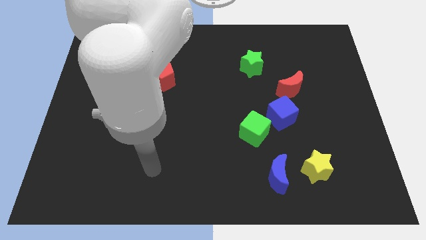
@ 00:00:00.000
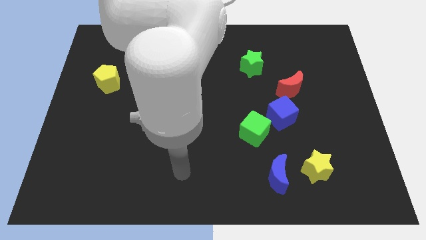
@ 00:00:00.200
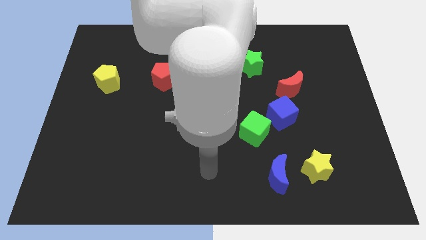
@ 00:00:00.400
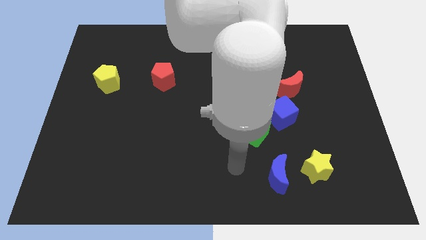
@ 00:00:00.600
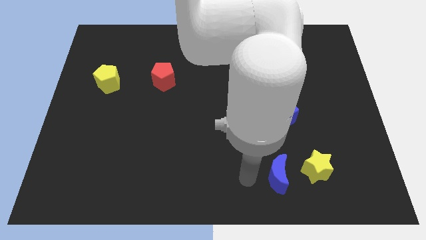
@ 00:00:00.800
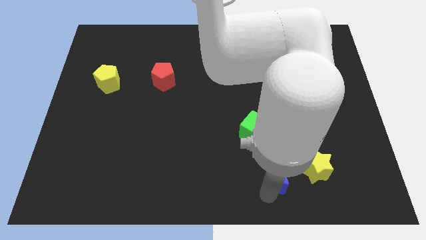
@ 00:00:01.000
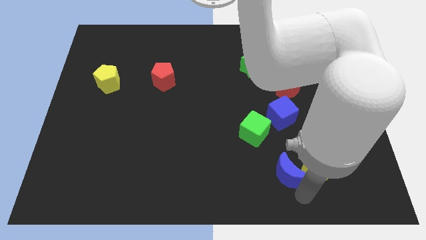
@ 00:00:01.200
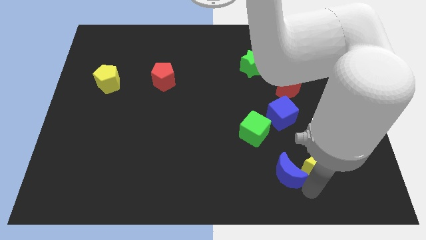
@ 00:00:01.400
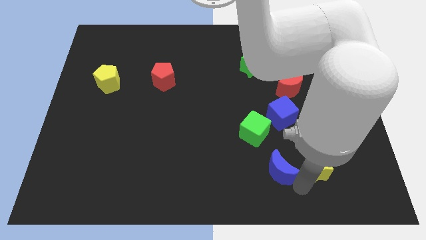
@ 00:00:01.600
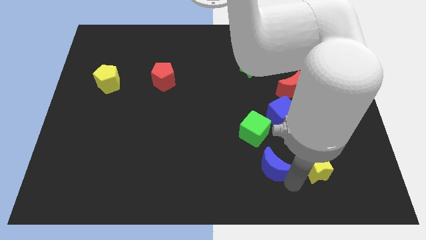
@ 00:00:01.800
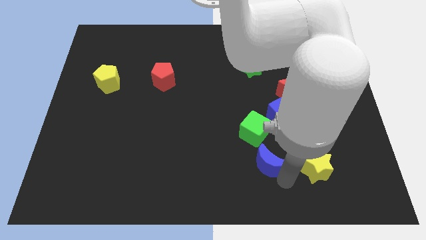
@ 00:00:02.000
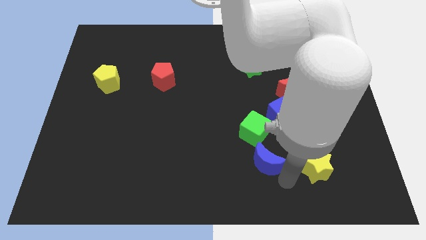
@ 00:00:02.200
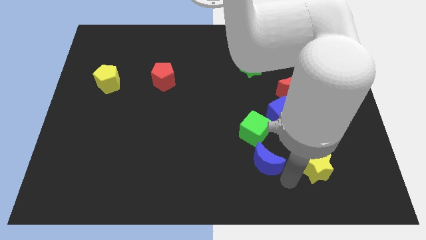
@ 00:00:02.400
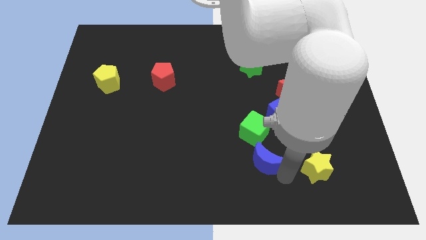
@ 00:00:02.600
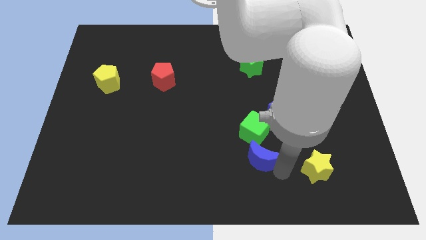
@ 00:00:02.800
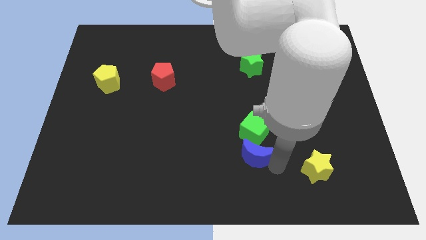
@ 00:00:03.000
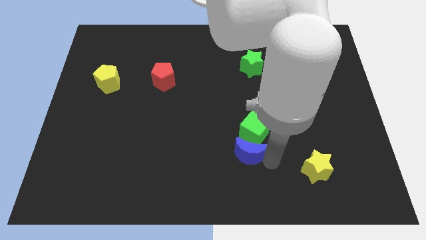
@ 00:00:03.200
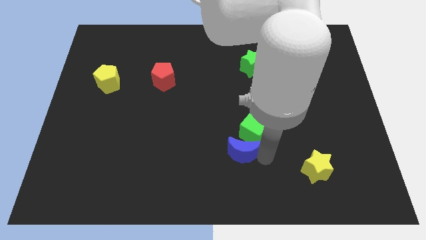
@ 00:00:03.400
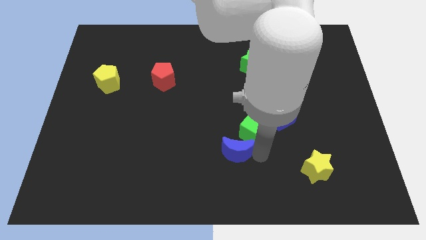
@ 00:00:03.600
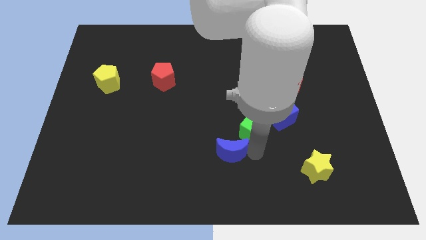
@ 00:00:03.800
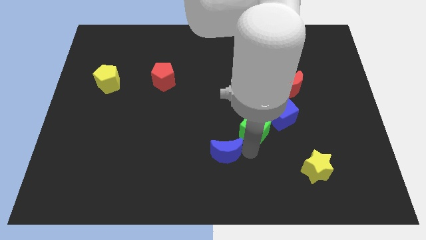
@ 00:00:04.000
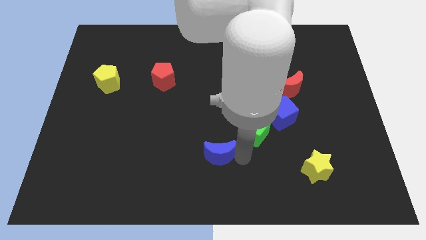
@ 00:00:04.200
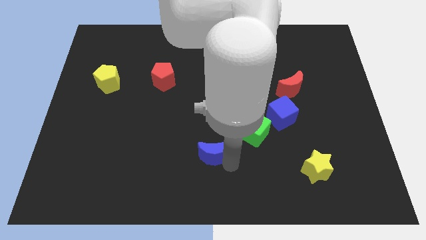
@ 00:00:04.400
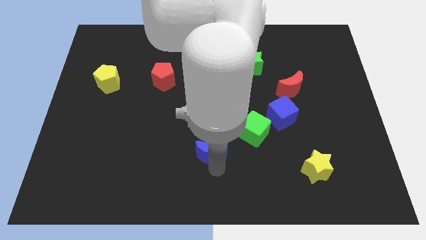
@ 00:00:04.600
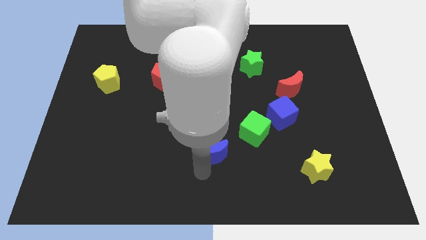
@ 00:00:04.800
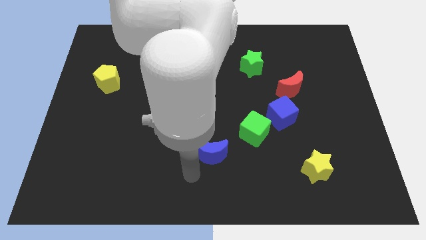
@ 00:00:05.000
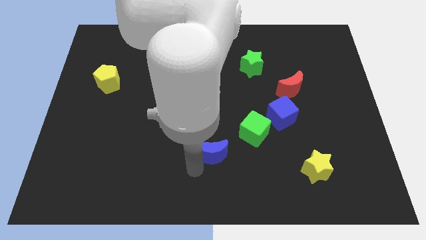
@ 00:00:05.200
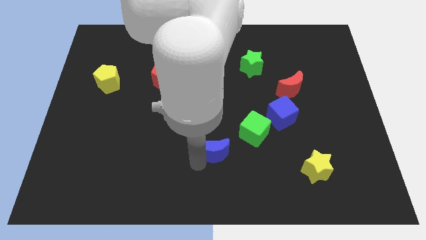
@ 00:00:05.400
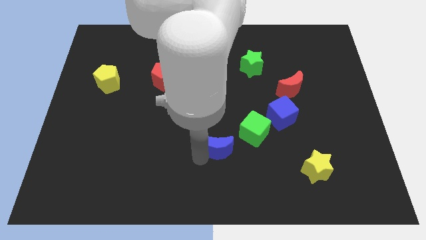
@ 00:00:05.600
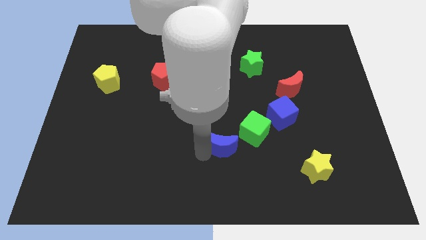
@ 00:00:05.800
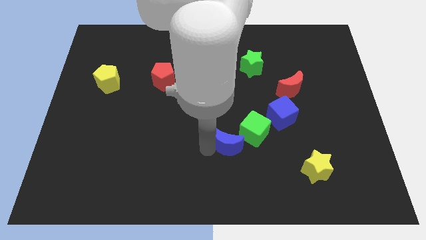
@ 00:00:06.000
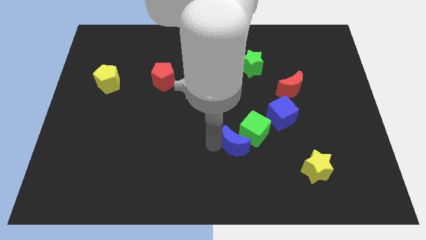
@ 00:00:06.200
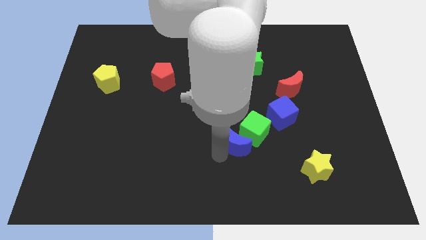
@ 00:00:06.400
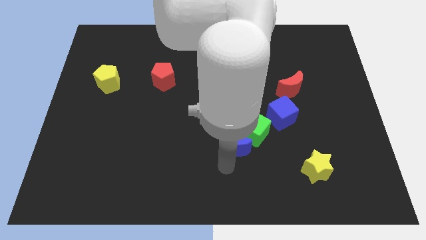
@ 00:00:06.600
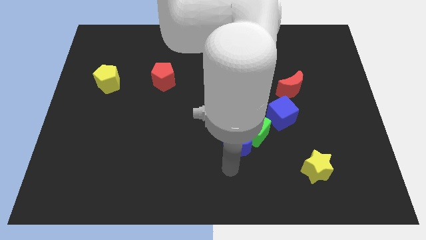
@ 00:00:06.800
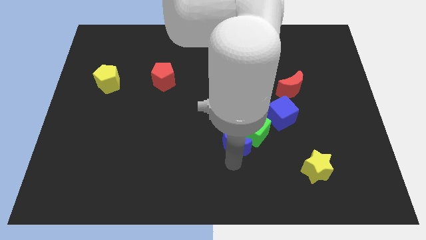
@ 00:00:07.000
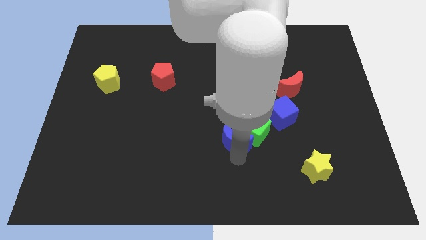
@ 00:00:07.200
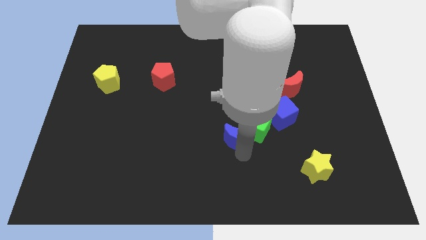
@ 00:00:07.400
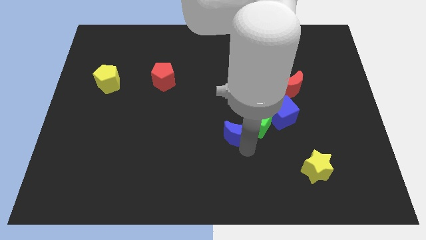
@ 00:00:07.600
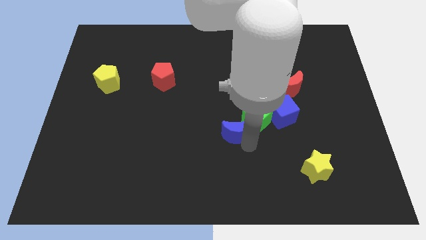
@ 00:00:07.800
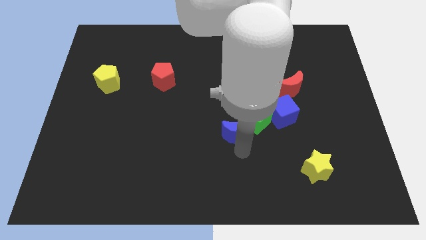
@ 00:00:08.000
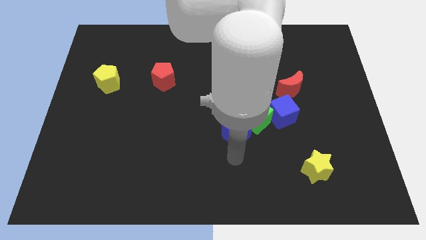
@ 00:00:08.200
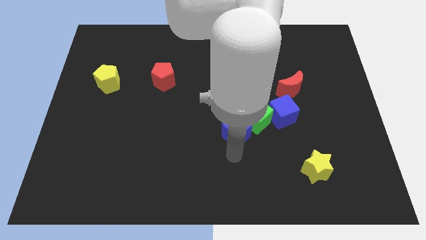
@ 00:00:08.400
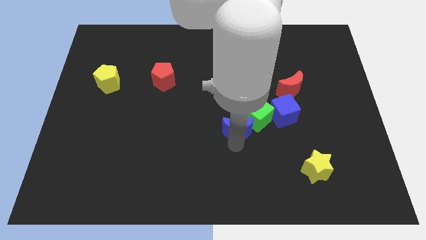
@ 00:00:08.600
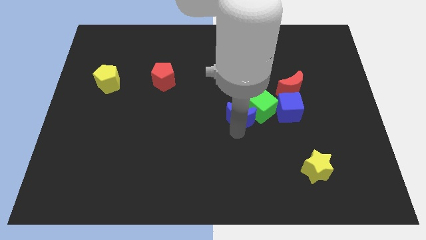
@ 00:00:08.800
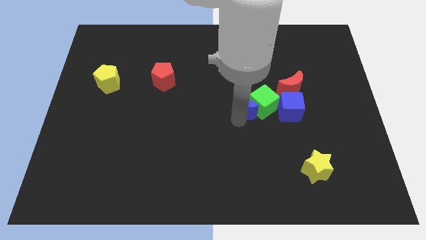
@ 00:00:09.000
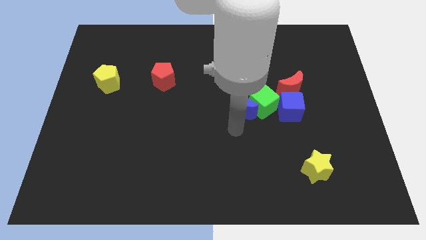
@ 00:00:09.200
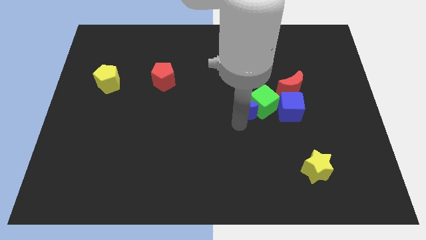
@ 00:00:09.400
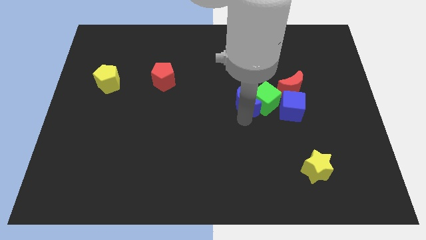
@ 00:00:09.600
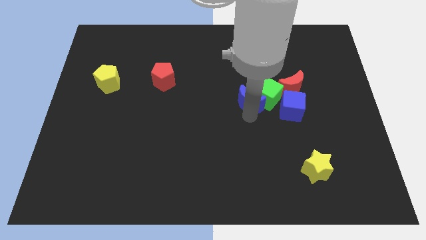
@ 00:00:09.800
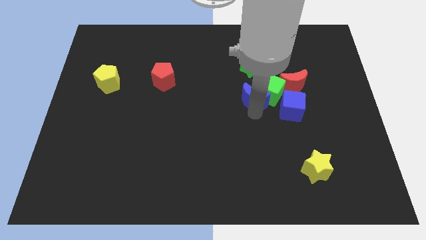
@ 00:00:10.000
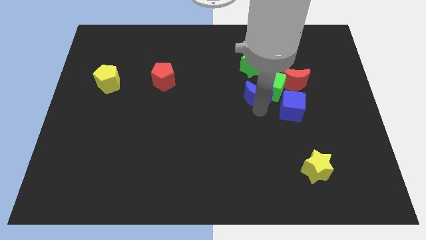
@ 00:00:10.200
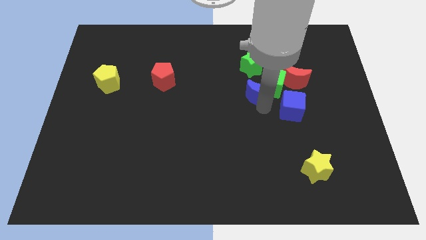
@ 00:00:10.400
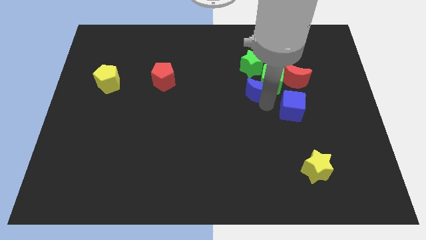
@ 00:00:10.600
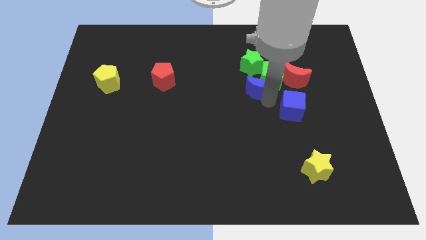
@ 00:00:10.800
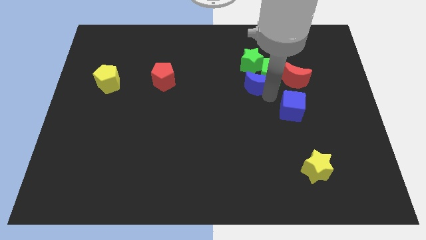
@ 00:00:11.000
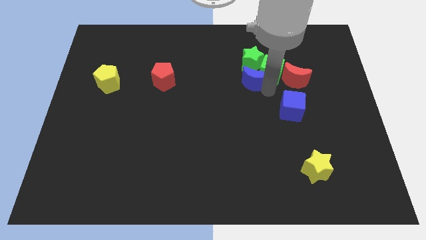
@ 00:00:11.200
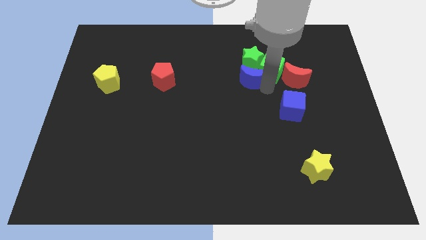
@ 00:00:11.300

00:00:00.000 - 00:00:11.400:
slide the blue moon to the green star

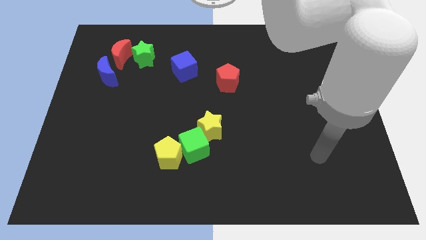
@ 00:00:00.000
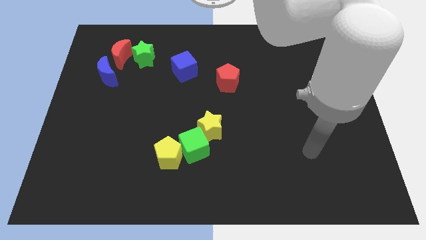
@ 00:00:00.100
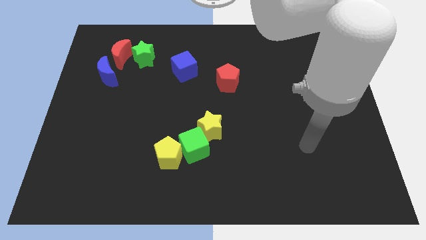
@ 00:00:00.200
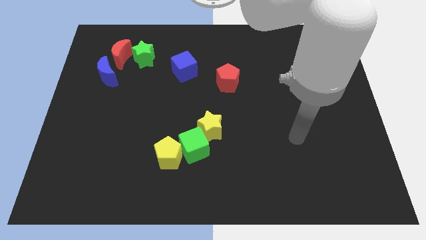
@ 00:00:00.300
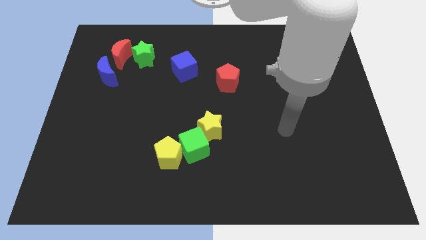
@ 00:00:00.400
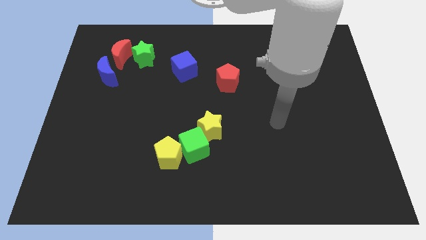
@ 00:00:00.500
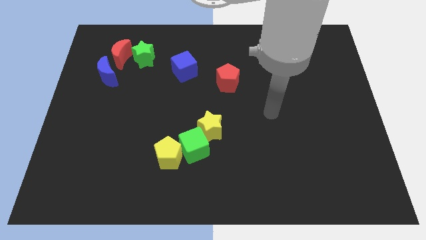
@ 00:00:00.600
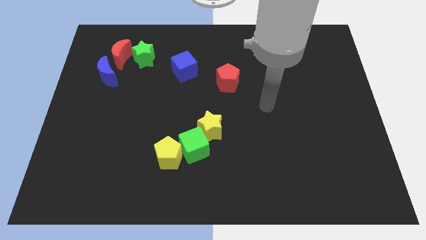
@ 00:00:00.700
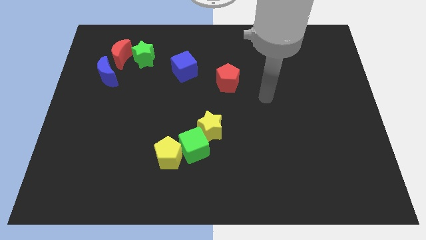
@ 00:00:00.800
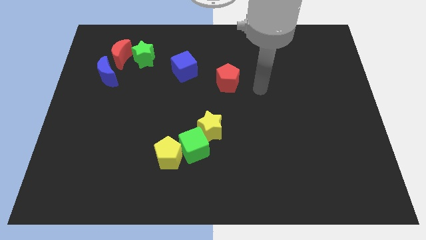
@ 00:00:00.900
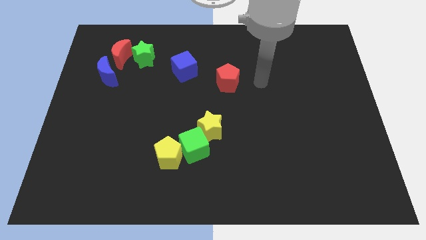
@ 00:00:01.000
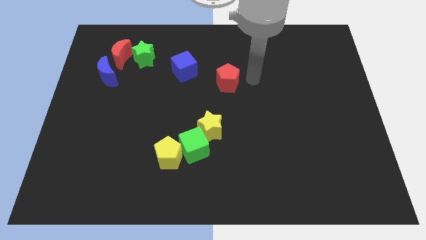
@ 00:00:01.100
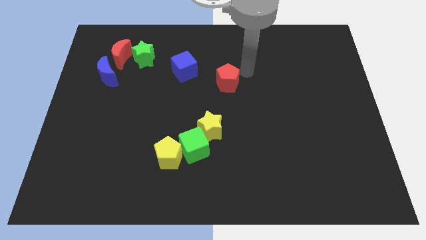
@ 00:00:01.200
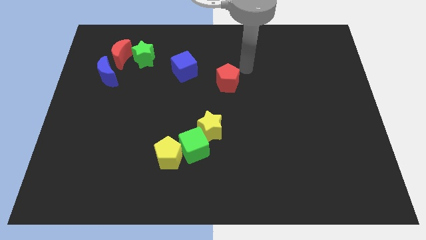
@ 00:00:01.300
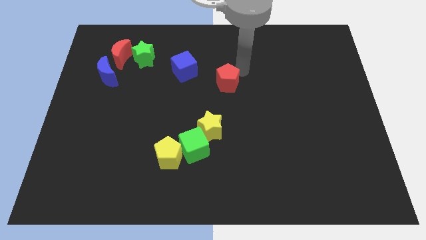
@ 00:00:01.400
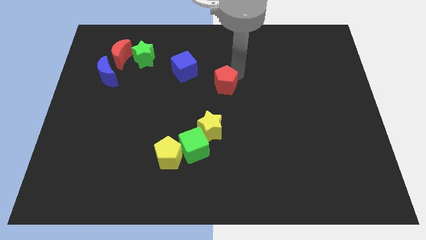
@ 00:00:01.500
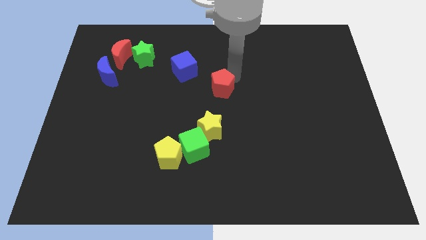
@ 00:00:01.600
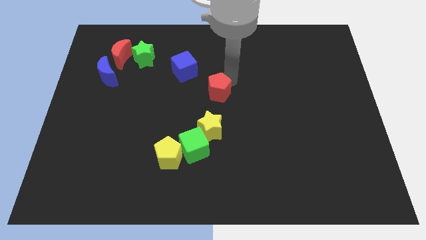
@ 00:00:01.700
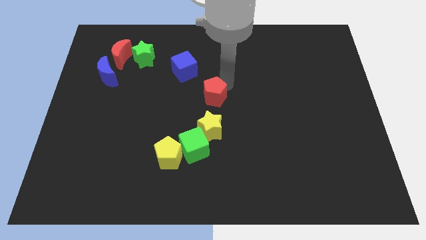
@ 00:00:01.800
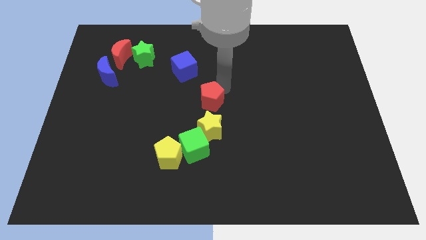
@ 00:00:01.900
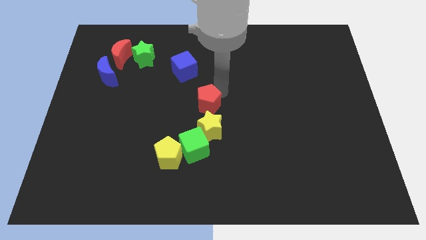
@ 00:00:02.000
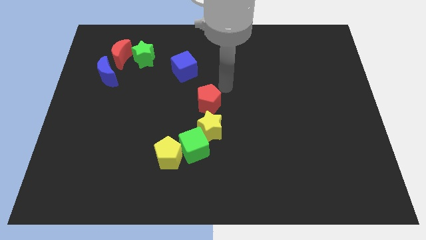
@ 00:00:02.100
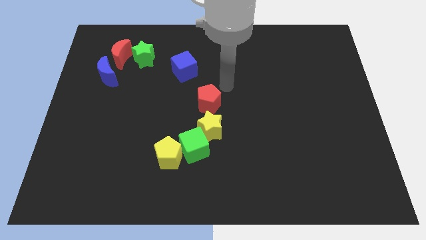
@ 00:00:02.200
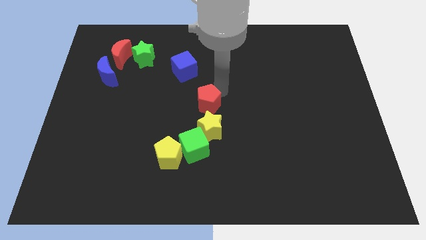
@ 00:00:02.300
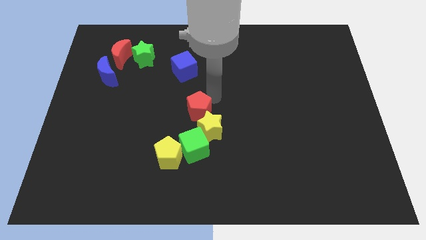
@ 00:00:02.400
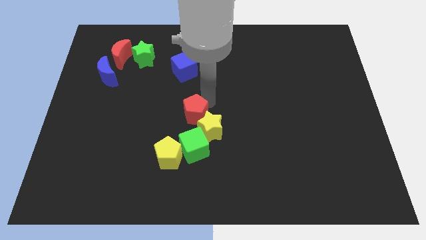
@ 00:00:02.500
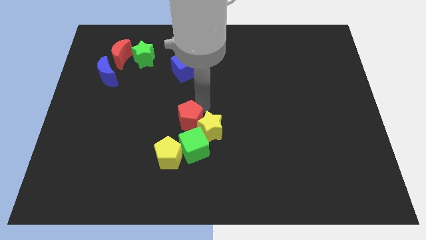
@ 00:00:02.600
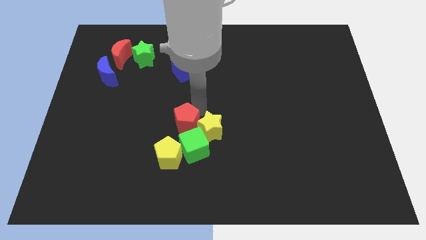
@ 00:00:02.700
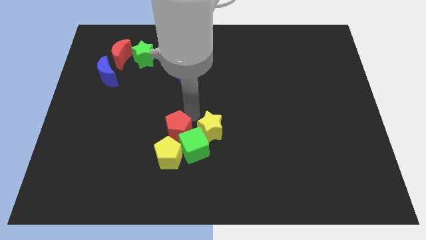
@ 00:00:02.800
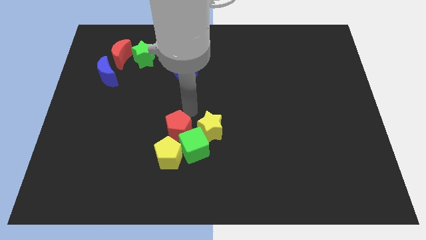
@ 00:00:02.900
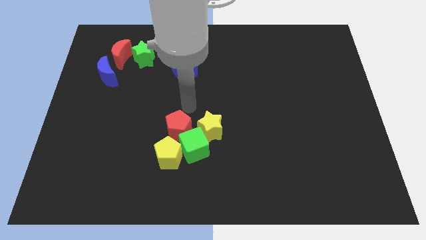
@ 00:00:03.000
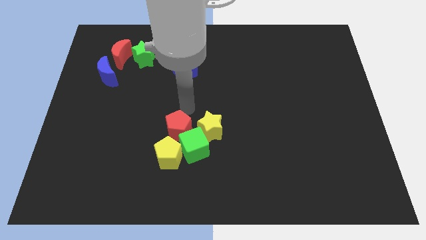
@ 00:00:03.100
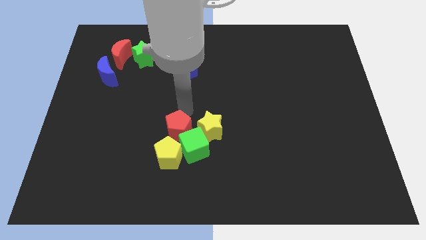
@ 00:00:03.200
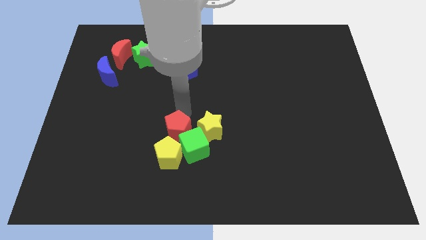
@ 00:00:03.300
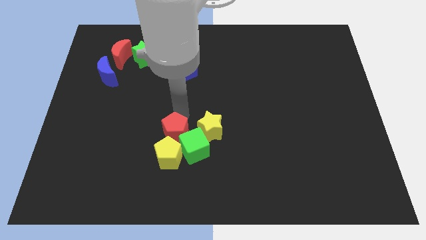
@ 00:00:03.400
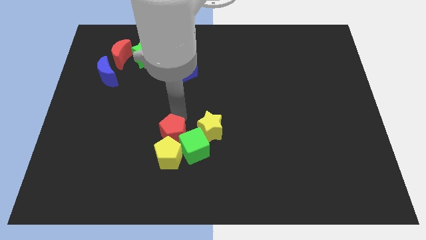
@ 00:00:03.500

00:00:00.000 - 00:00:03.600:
slide the red pentagon to the yellow pentagon
